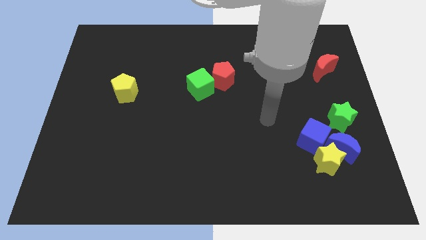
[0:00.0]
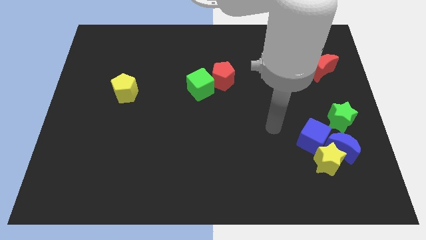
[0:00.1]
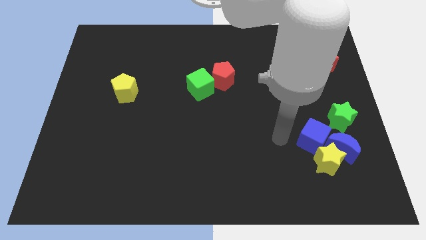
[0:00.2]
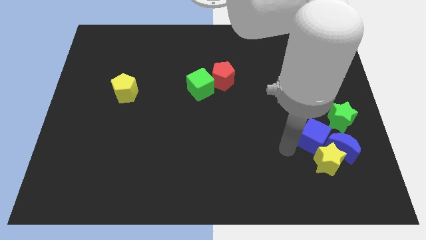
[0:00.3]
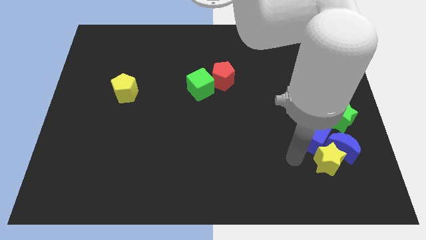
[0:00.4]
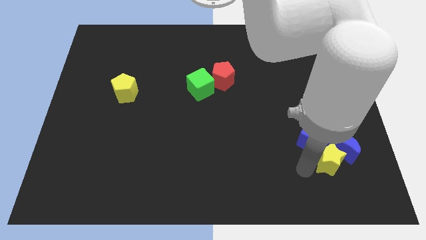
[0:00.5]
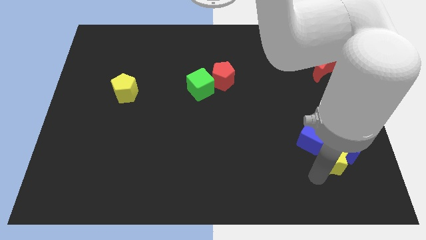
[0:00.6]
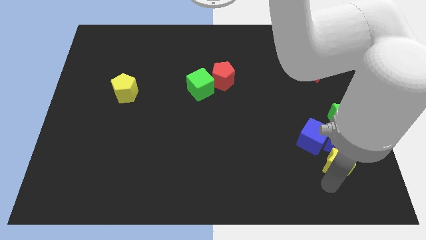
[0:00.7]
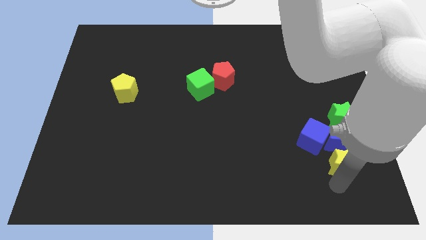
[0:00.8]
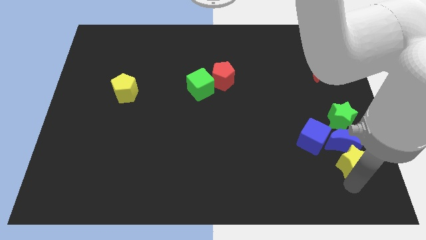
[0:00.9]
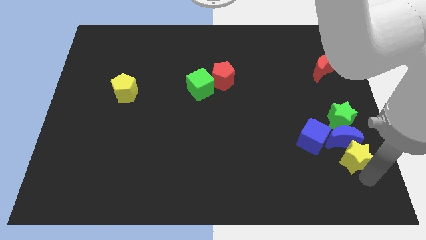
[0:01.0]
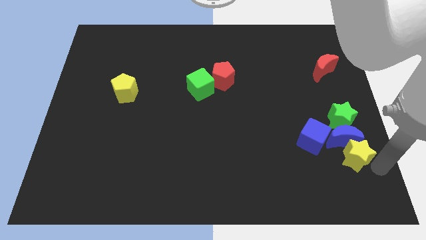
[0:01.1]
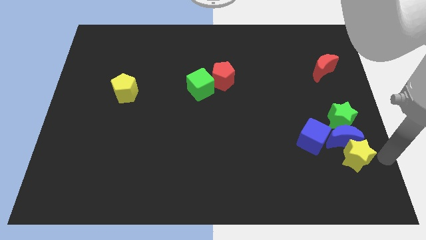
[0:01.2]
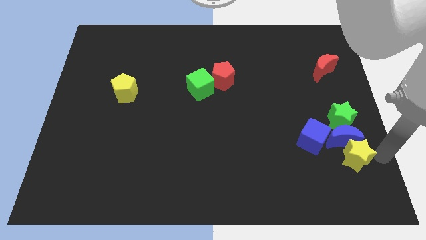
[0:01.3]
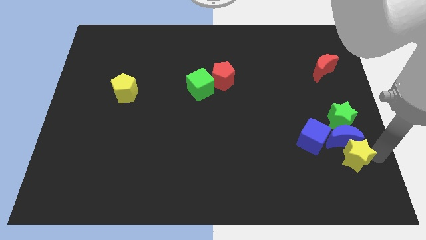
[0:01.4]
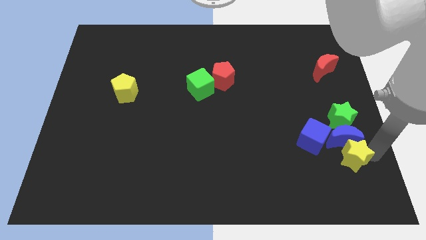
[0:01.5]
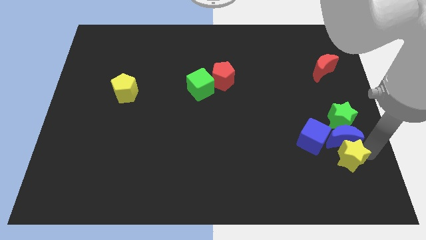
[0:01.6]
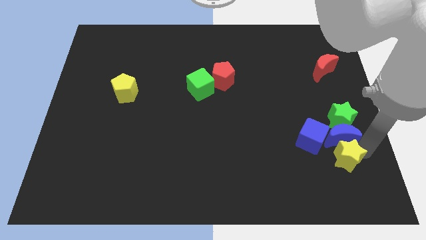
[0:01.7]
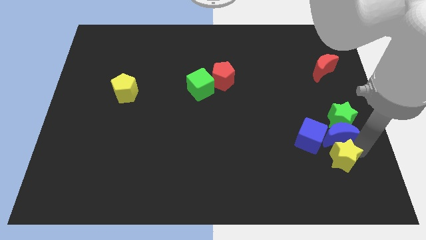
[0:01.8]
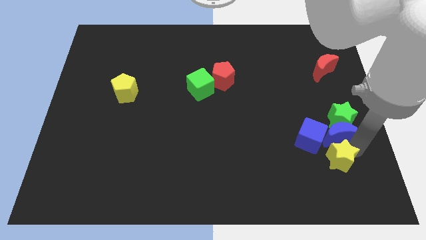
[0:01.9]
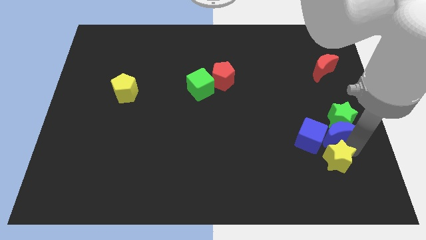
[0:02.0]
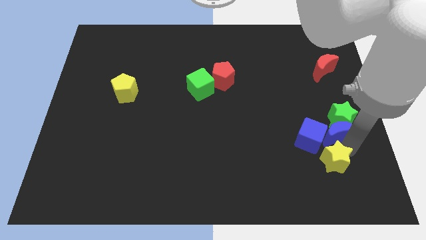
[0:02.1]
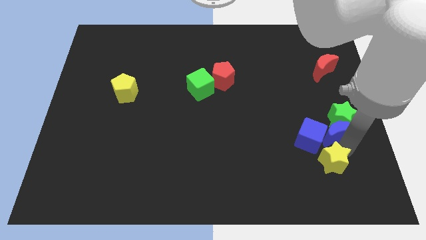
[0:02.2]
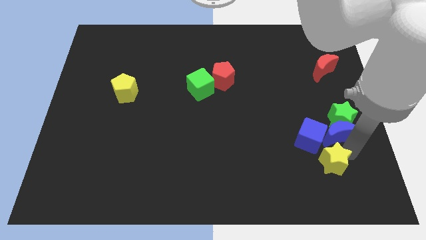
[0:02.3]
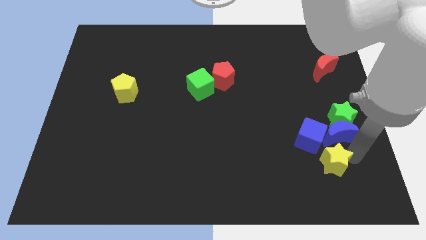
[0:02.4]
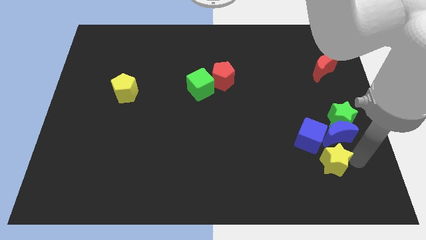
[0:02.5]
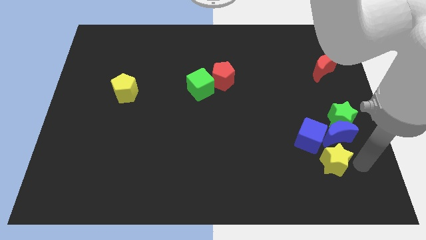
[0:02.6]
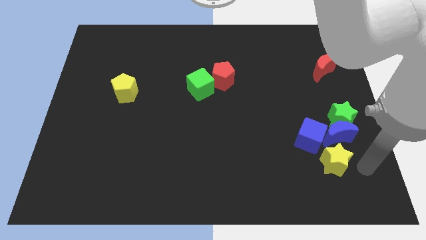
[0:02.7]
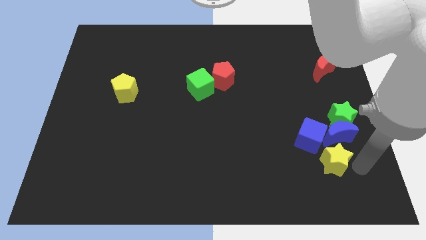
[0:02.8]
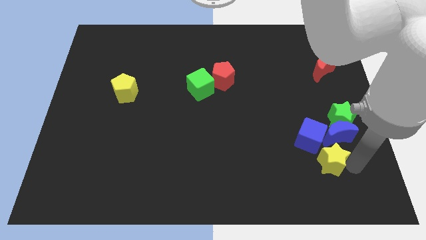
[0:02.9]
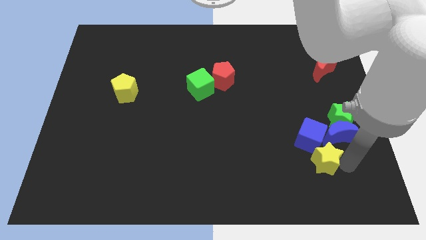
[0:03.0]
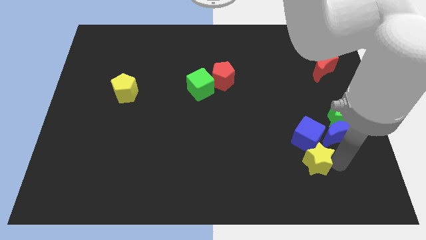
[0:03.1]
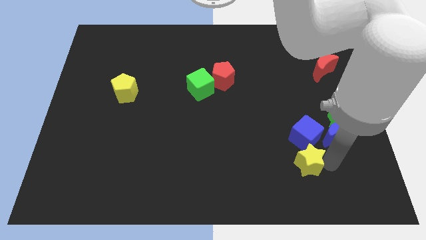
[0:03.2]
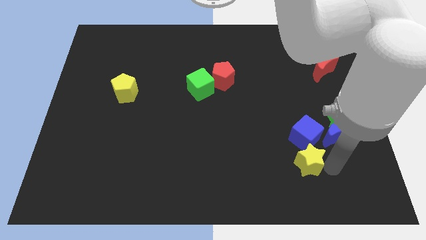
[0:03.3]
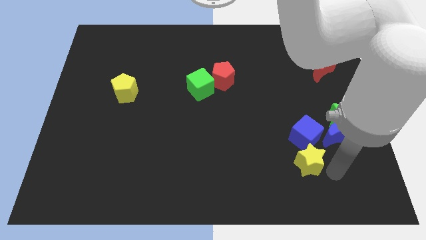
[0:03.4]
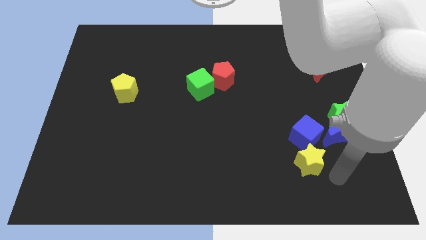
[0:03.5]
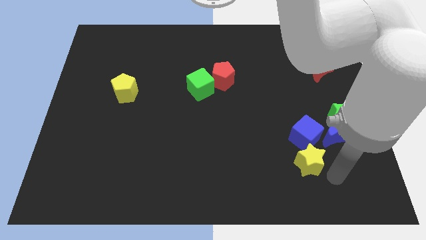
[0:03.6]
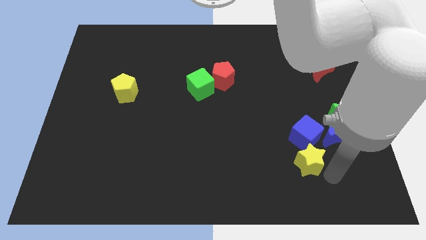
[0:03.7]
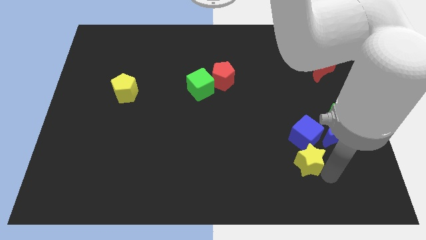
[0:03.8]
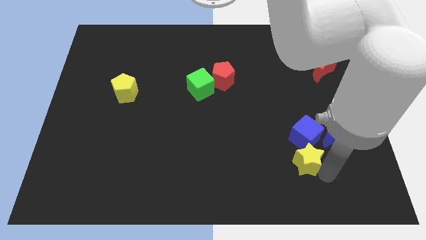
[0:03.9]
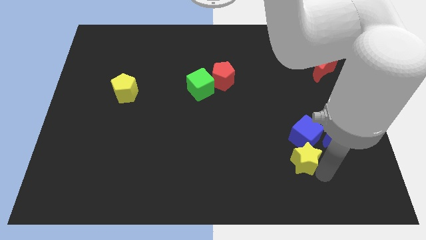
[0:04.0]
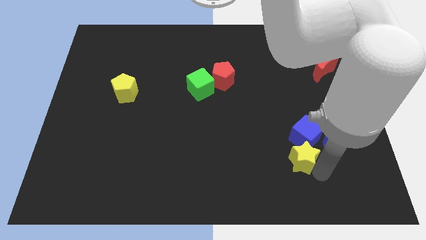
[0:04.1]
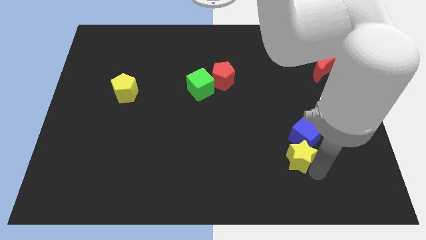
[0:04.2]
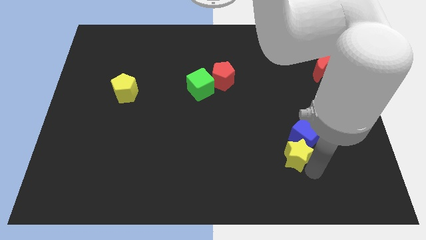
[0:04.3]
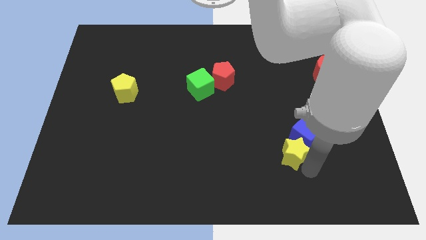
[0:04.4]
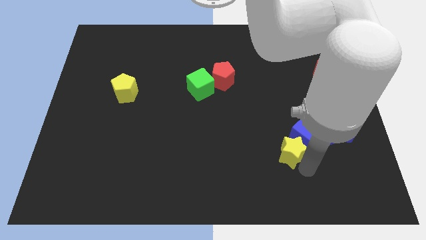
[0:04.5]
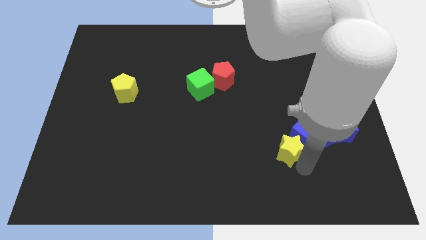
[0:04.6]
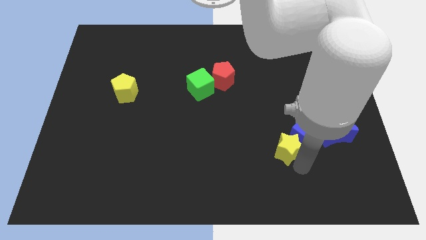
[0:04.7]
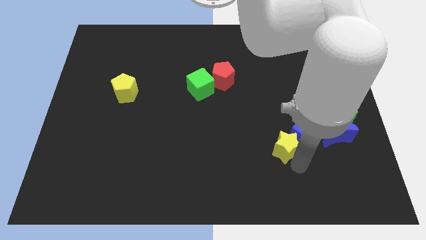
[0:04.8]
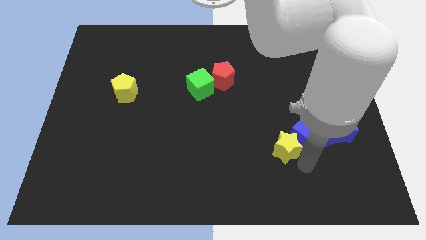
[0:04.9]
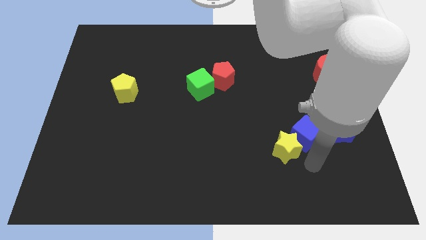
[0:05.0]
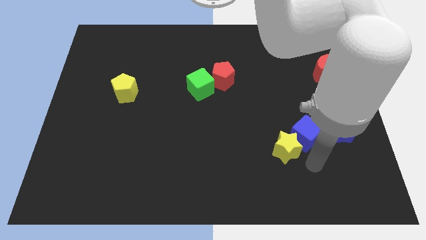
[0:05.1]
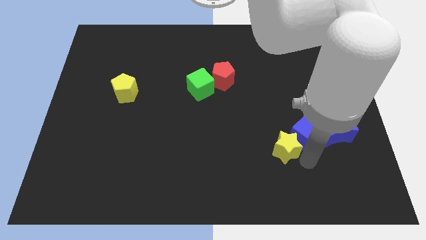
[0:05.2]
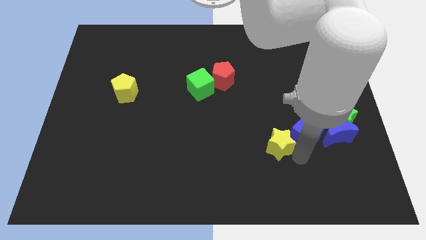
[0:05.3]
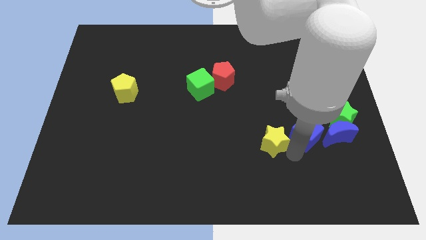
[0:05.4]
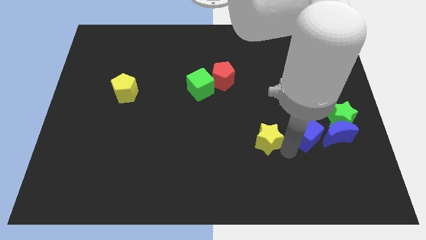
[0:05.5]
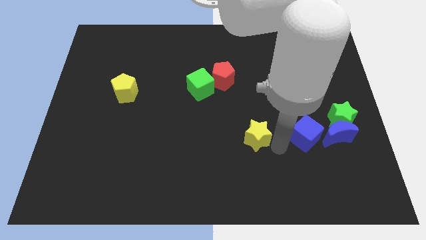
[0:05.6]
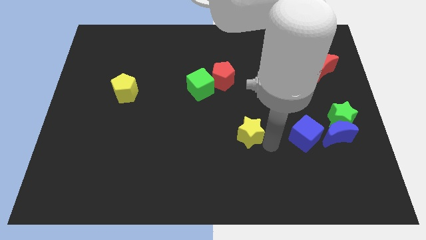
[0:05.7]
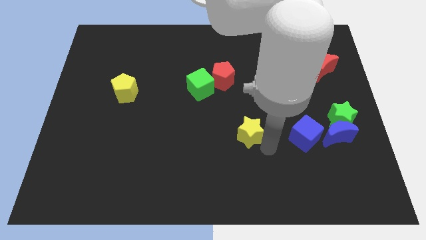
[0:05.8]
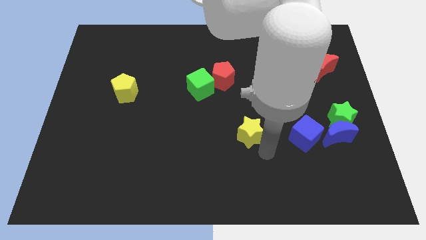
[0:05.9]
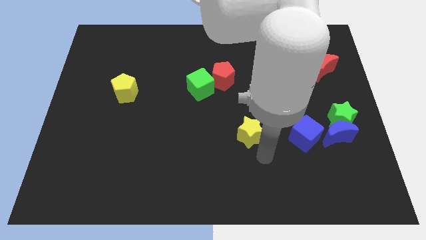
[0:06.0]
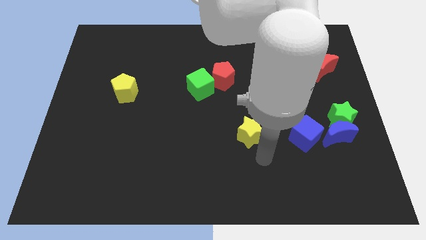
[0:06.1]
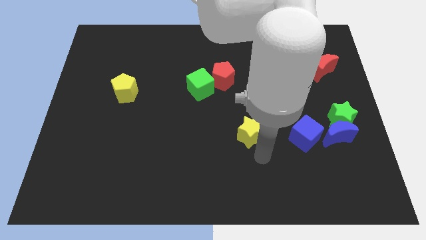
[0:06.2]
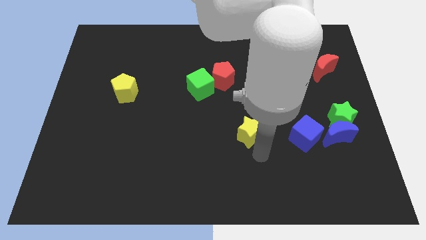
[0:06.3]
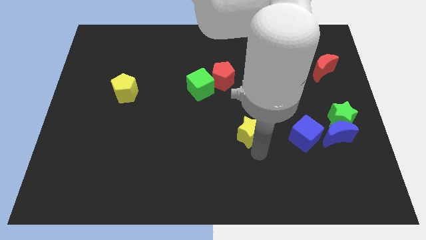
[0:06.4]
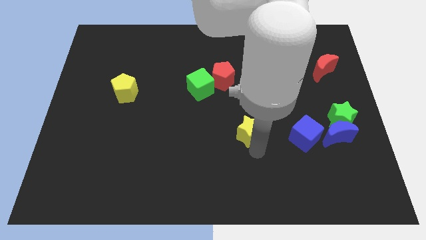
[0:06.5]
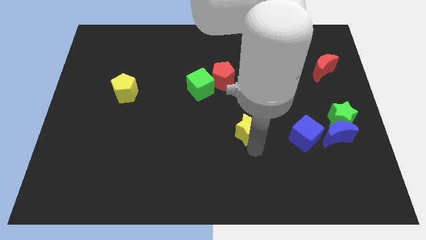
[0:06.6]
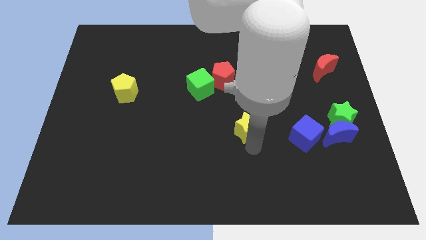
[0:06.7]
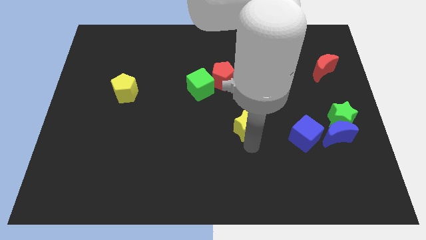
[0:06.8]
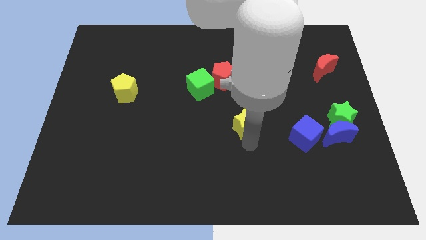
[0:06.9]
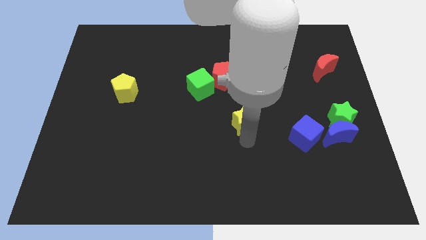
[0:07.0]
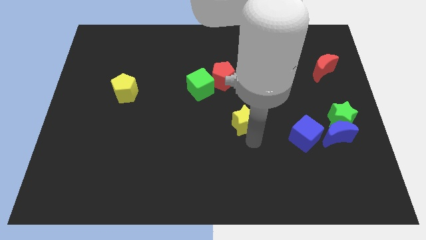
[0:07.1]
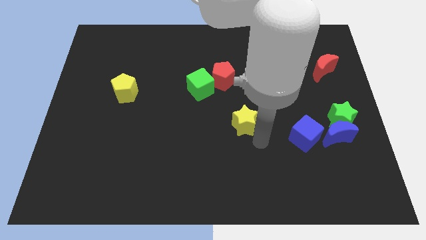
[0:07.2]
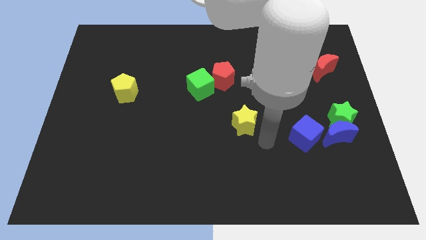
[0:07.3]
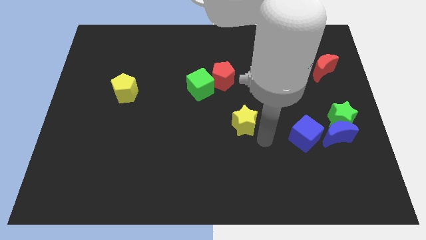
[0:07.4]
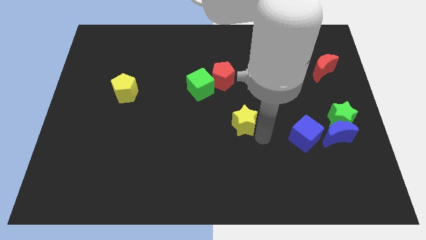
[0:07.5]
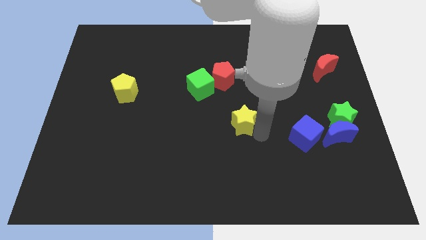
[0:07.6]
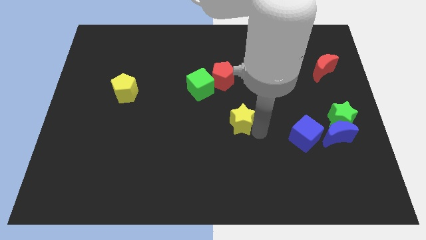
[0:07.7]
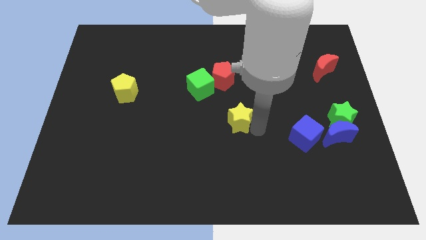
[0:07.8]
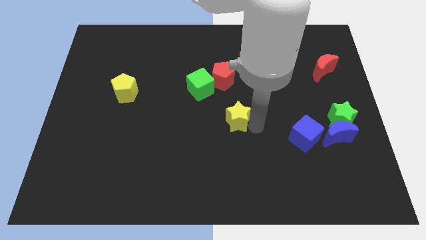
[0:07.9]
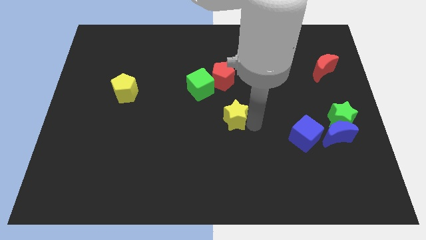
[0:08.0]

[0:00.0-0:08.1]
push the yellow star to the bottom right of the green cube
